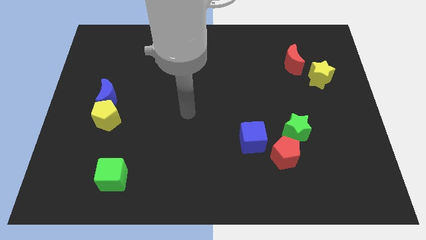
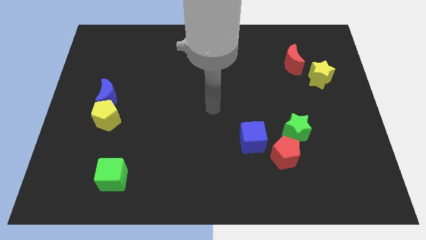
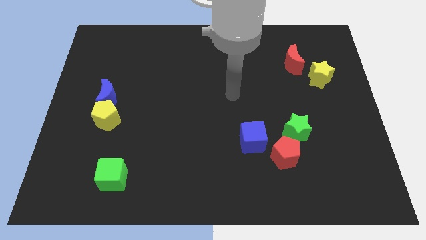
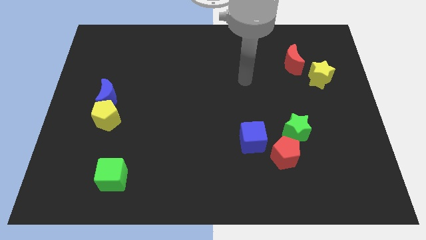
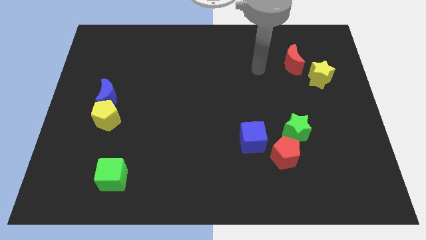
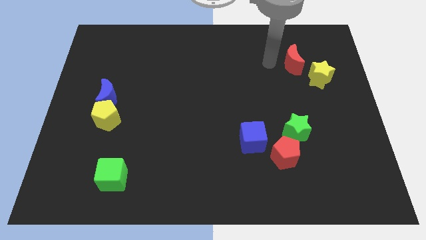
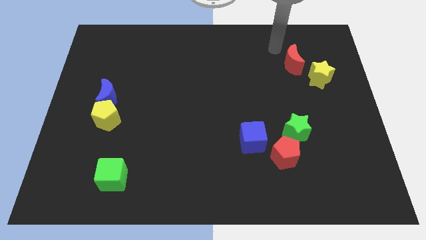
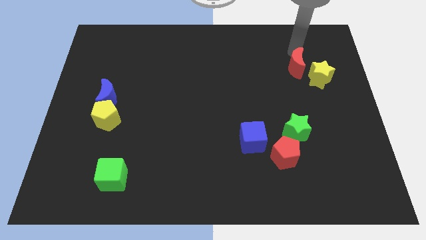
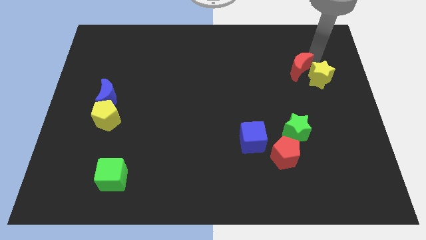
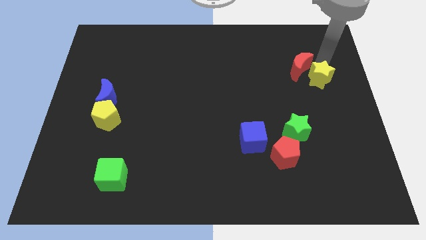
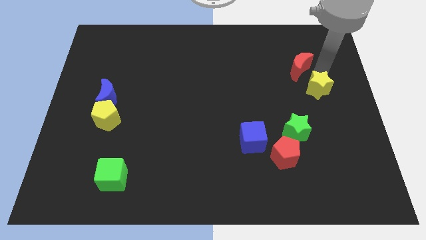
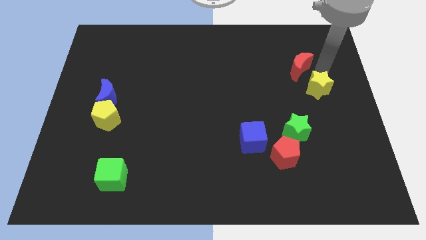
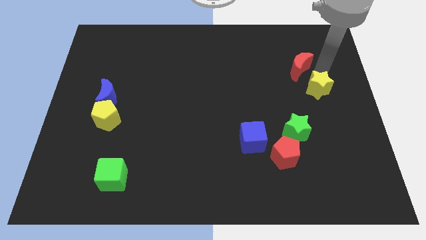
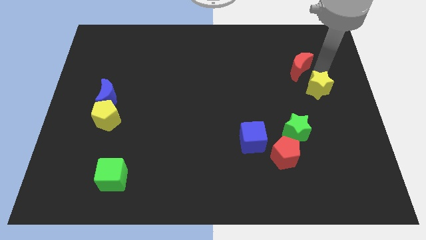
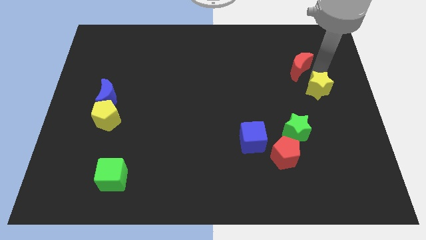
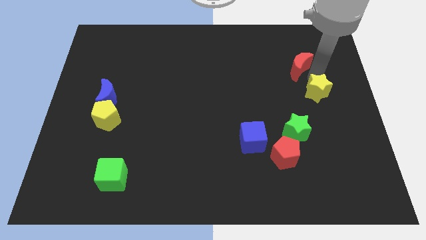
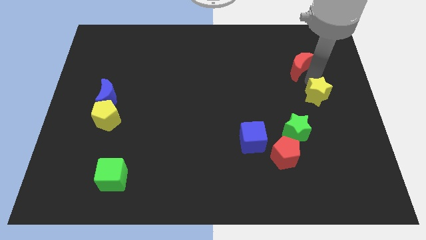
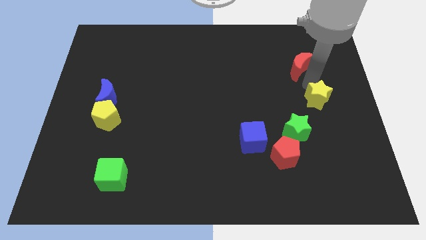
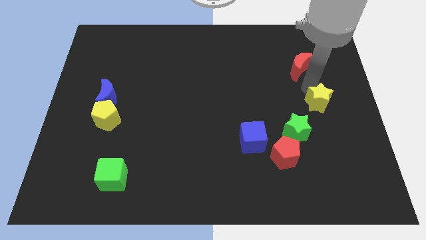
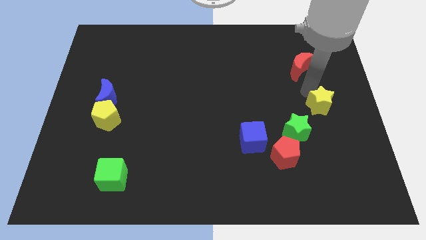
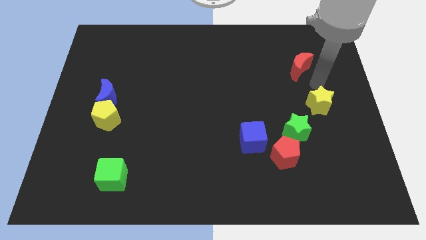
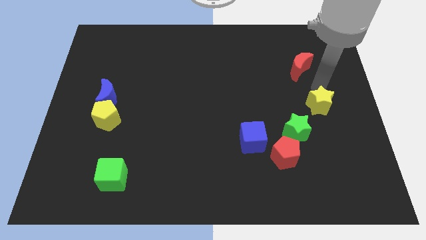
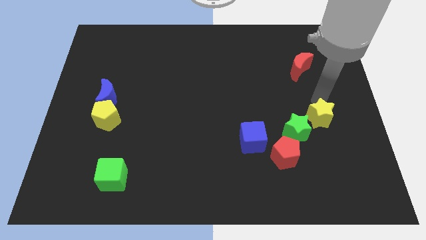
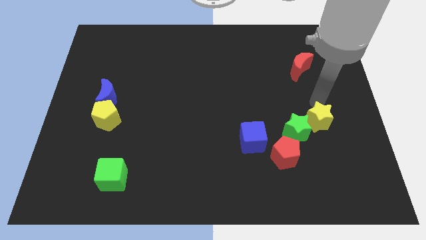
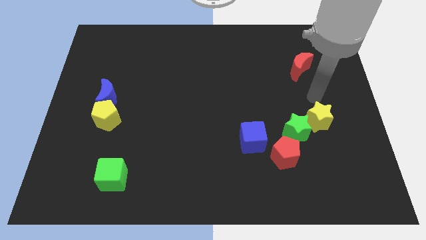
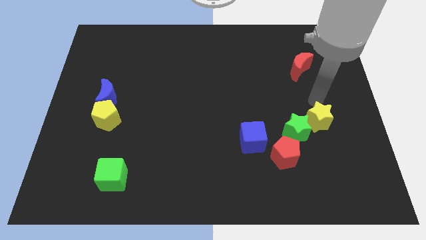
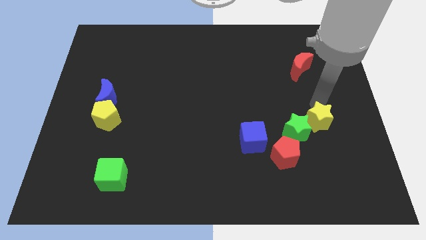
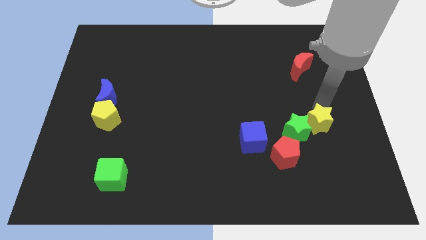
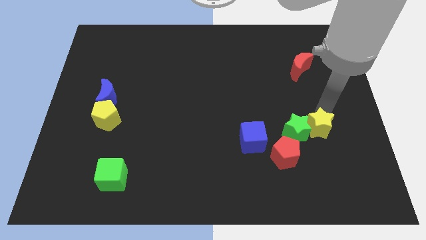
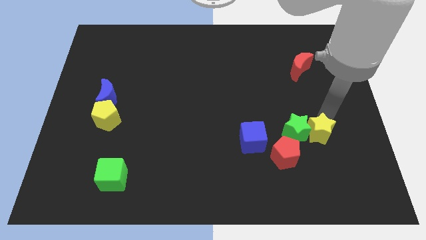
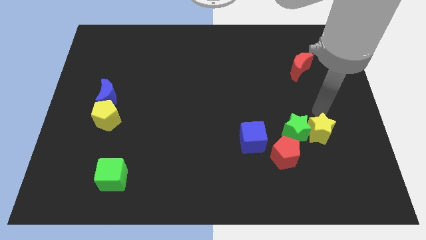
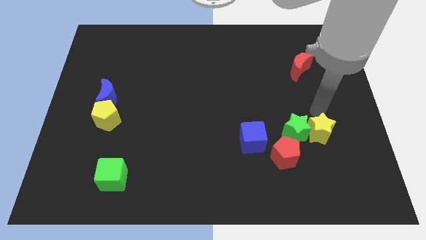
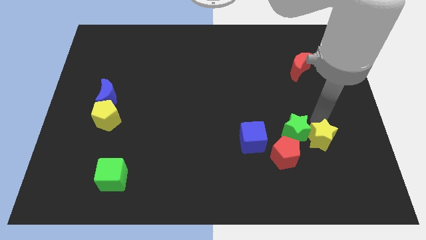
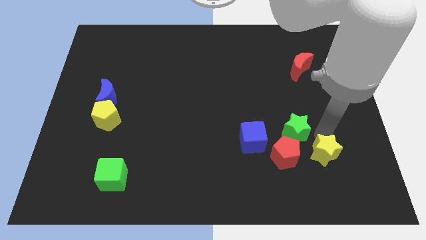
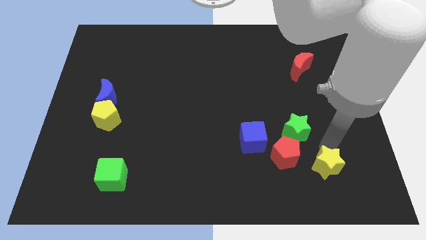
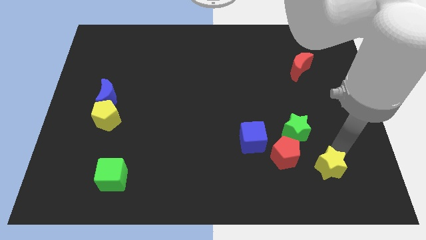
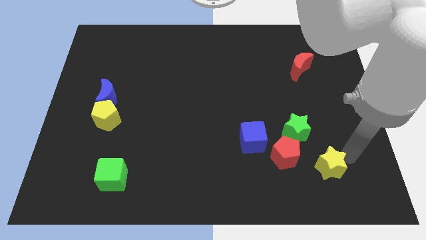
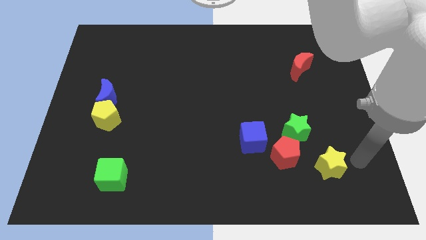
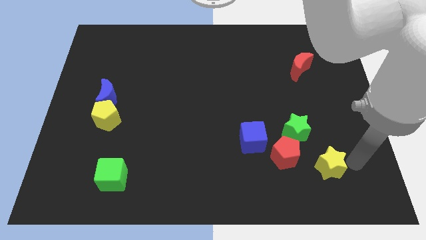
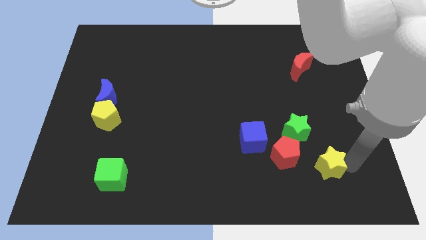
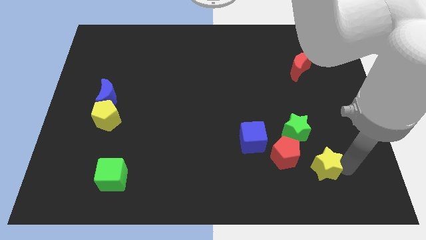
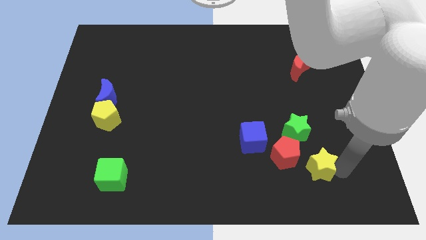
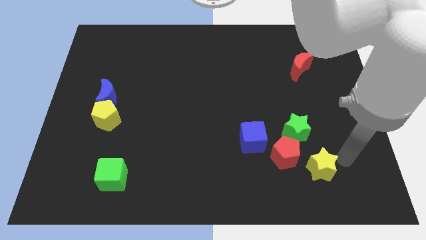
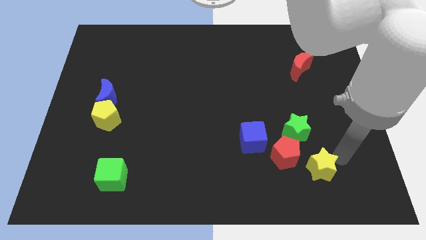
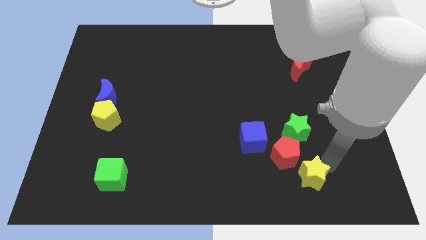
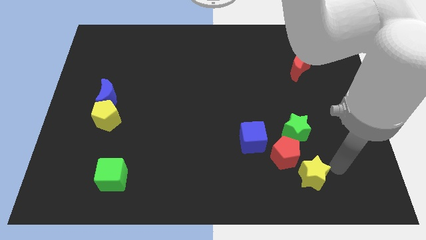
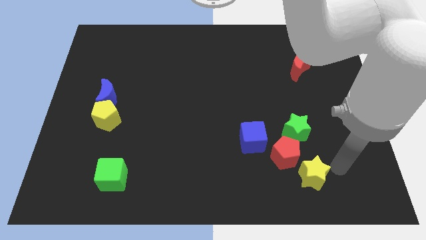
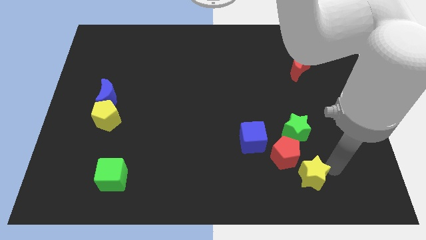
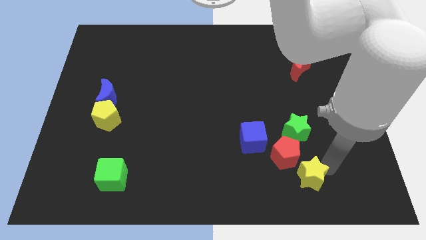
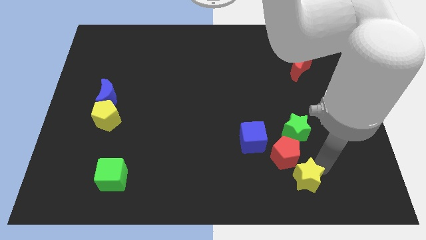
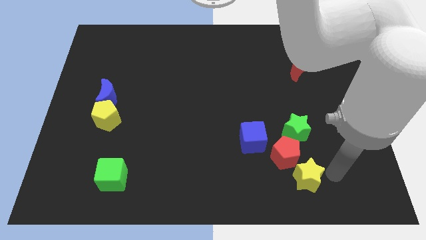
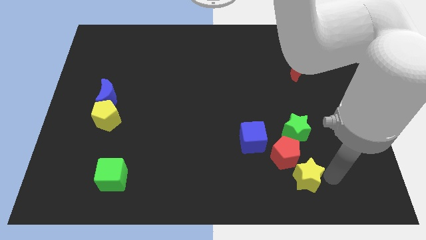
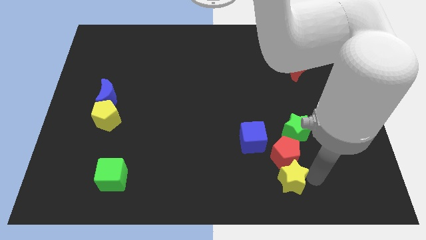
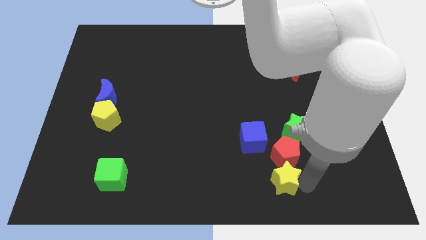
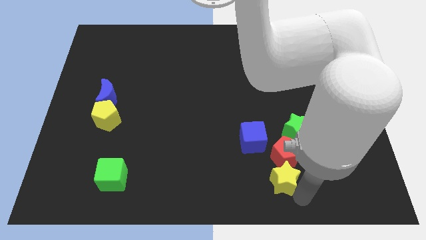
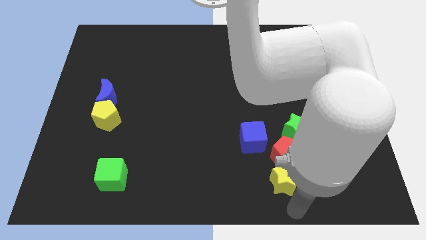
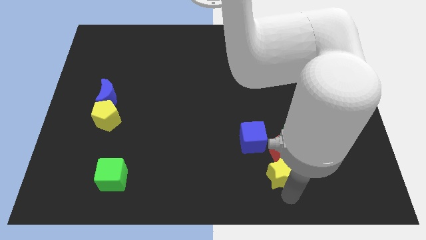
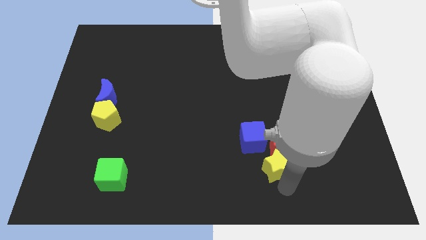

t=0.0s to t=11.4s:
put the yellow star to the bottom left side of the green star

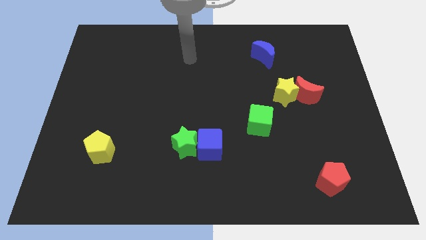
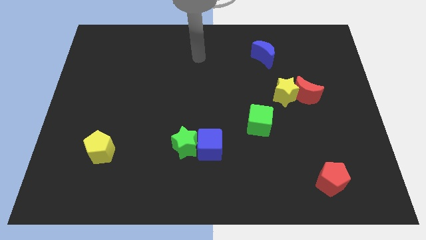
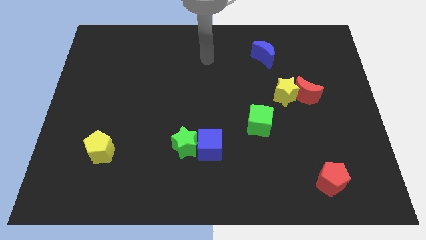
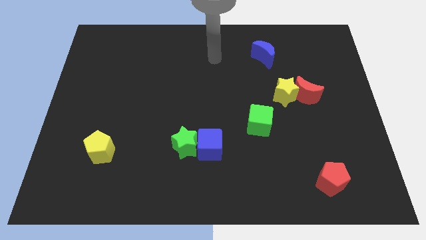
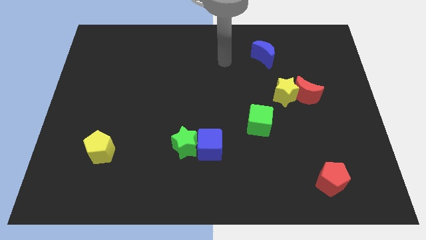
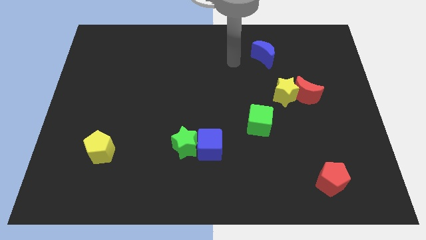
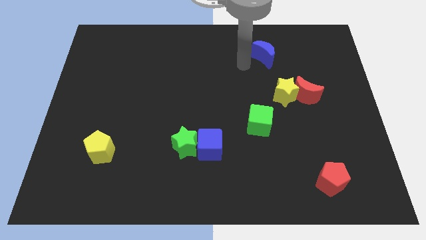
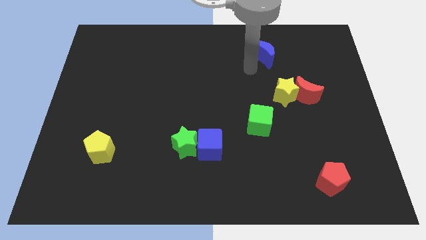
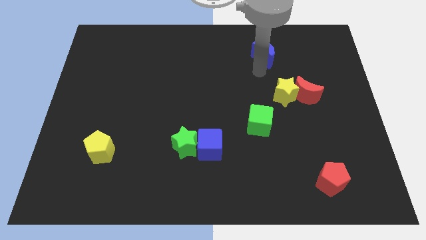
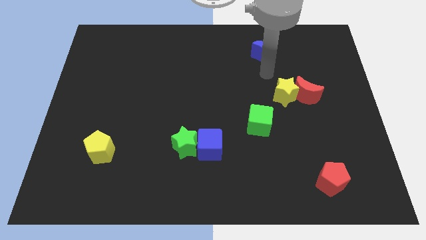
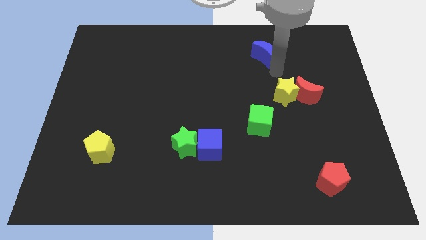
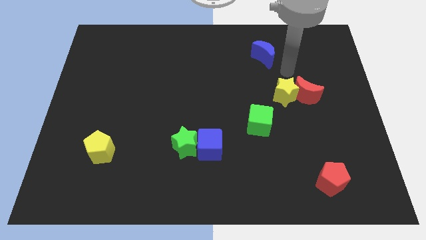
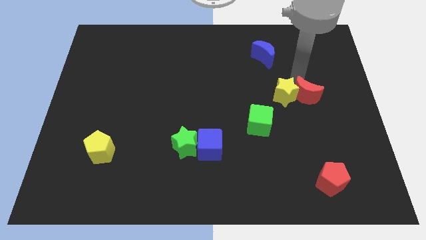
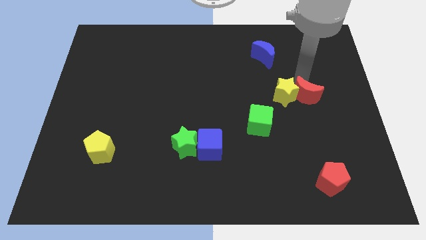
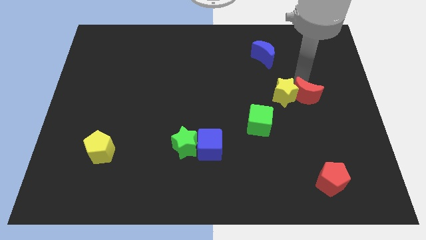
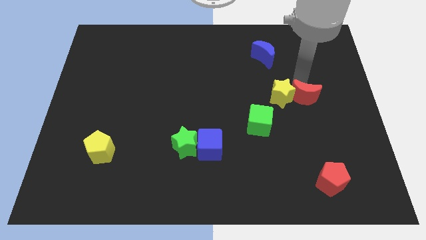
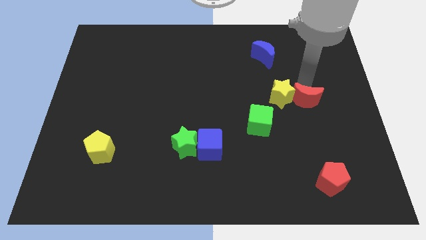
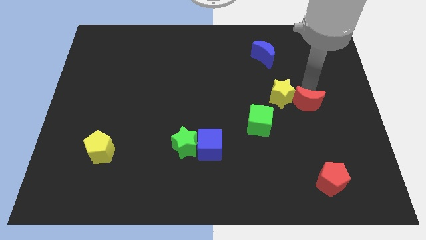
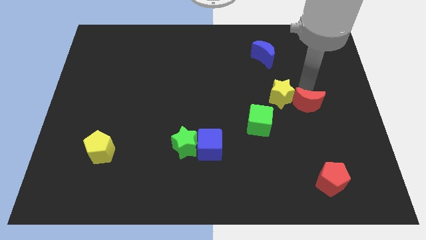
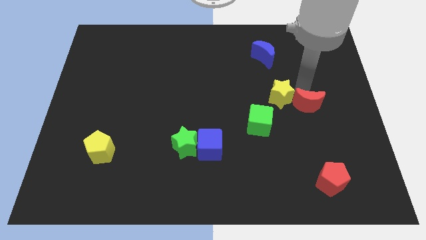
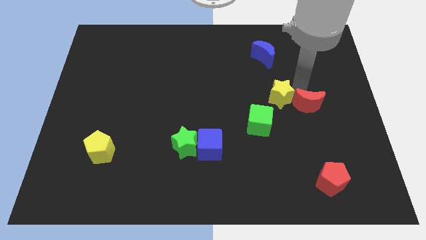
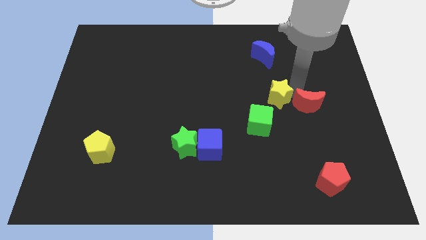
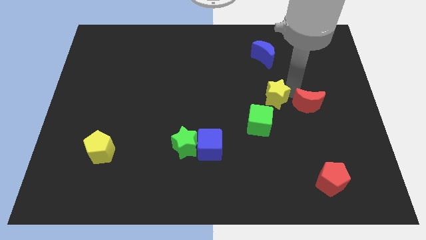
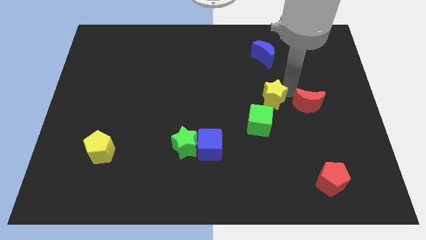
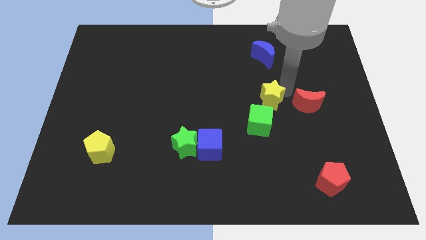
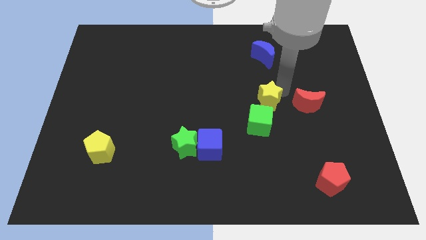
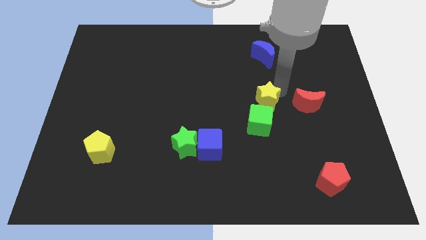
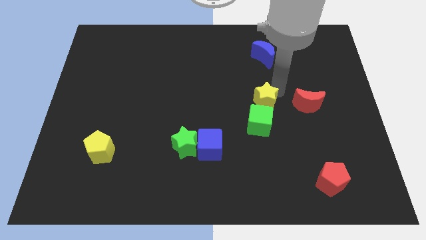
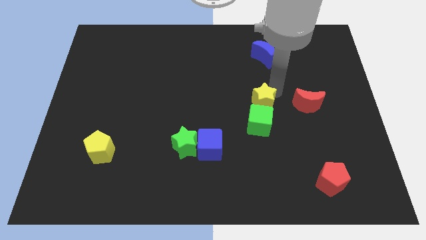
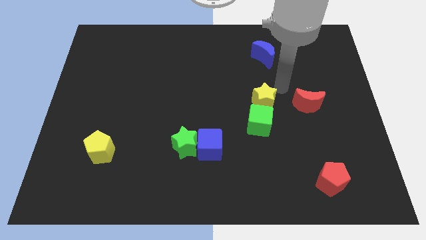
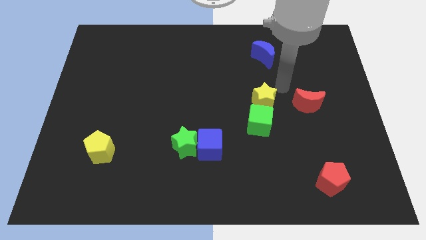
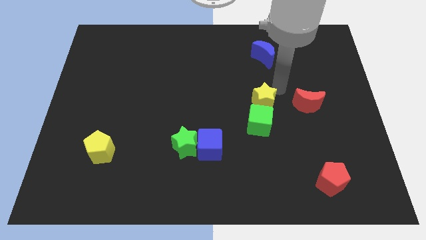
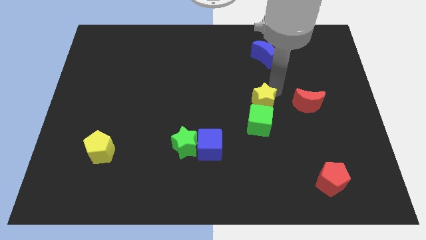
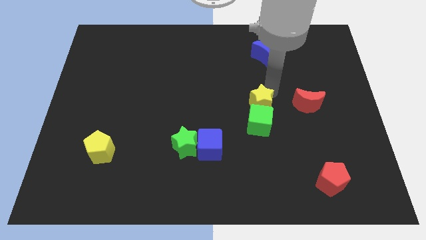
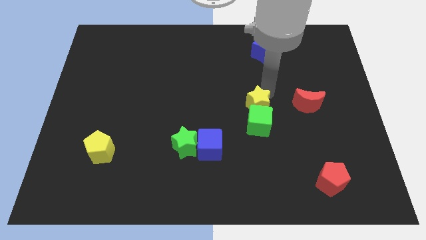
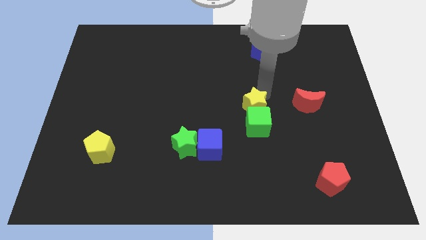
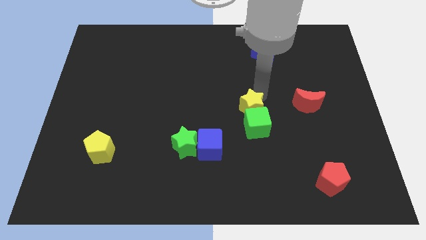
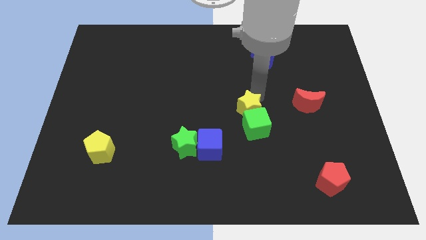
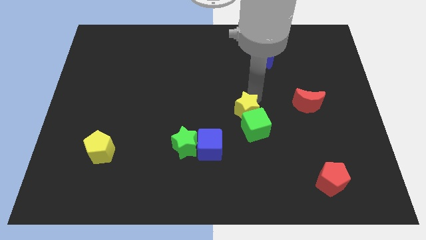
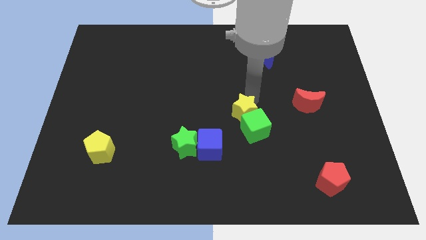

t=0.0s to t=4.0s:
move the yellow star to the top right side of the blue cube
